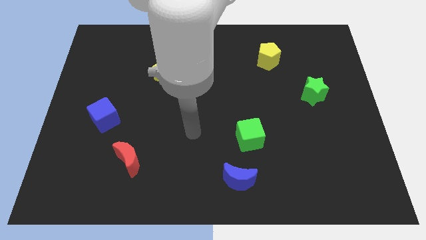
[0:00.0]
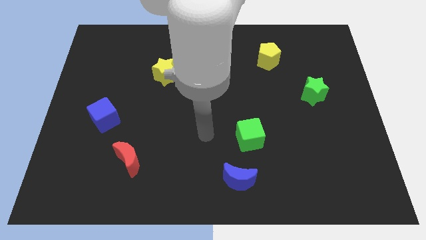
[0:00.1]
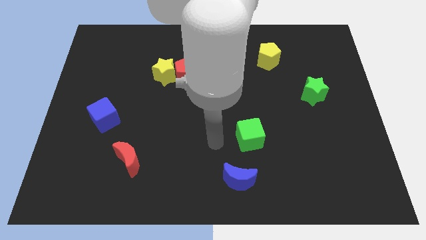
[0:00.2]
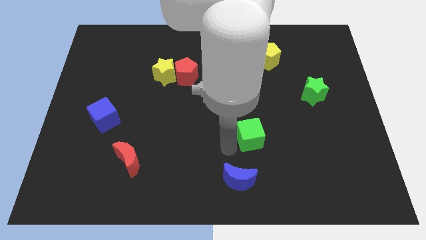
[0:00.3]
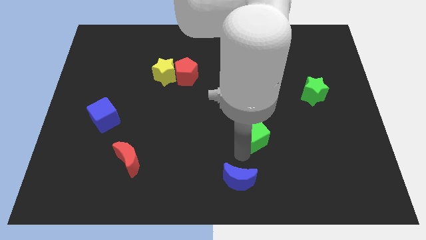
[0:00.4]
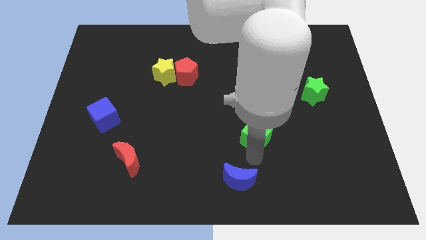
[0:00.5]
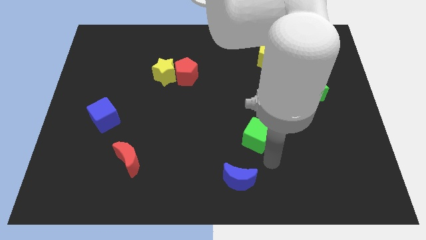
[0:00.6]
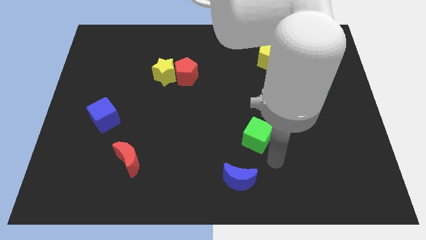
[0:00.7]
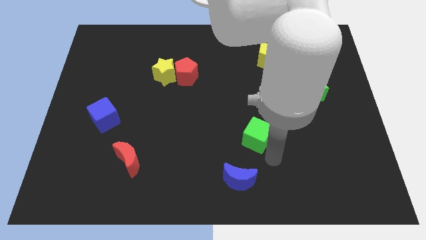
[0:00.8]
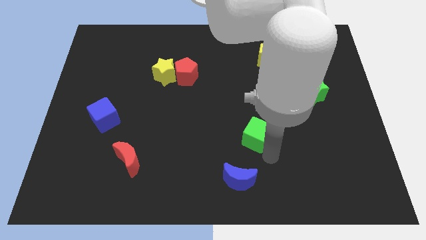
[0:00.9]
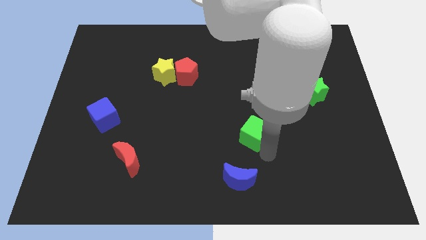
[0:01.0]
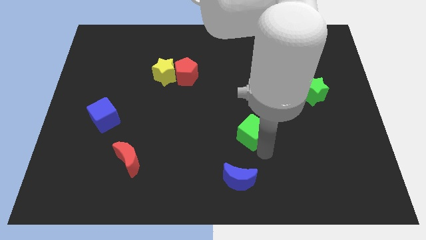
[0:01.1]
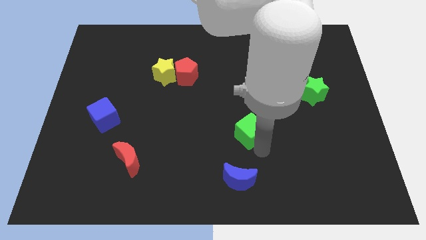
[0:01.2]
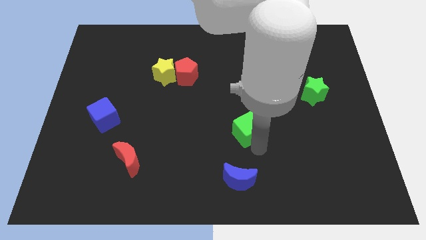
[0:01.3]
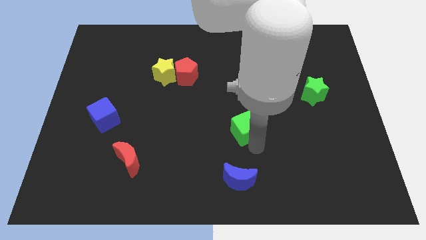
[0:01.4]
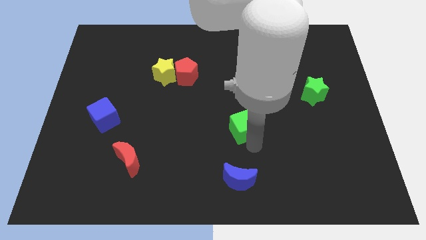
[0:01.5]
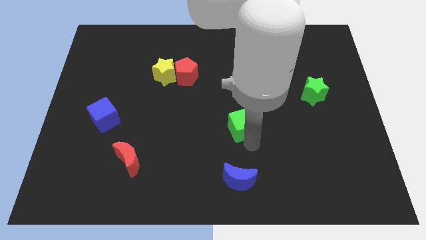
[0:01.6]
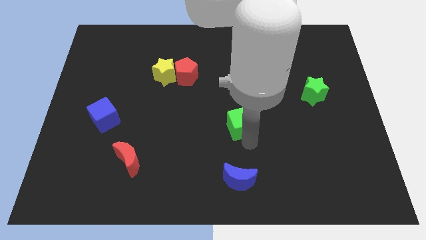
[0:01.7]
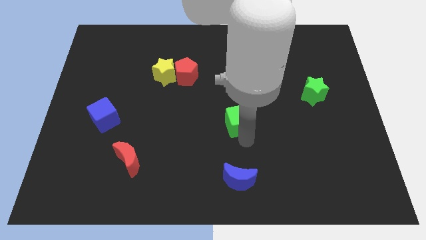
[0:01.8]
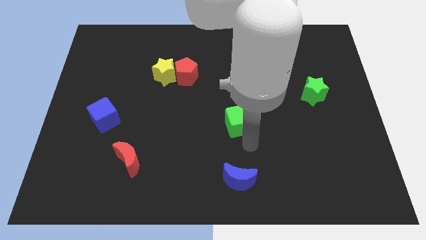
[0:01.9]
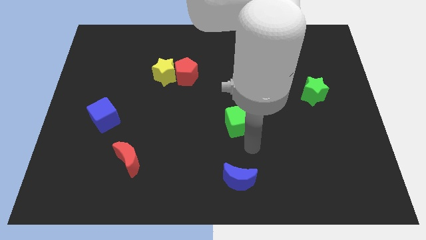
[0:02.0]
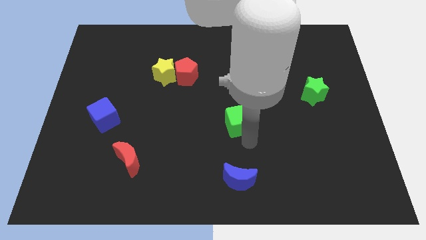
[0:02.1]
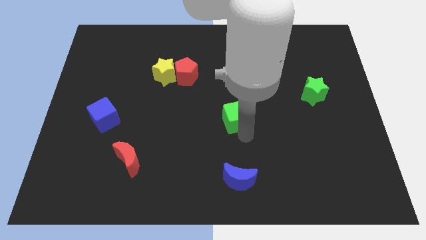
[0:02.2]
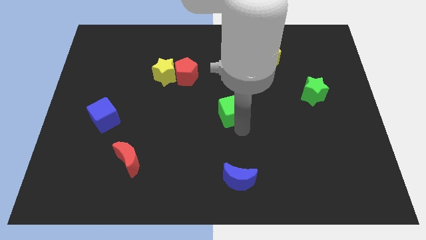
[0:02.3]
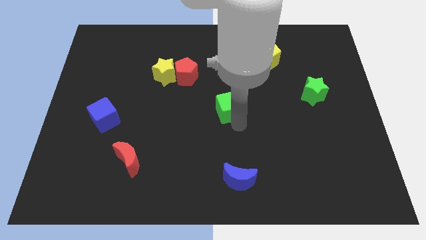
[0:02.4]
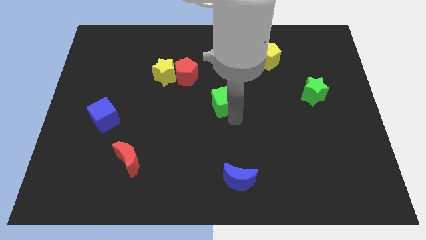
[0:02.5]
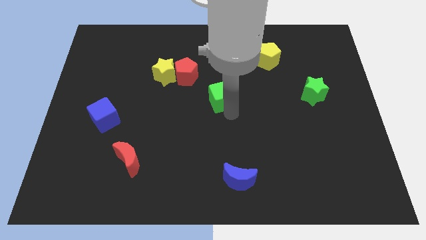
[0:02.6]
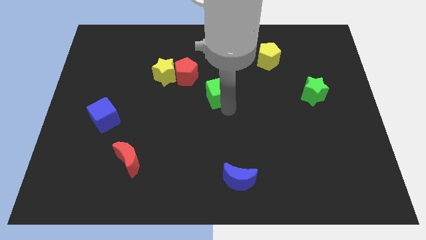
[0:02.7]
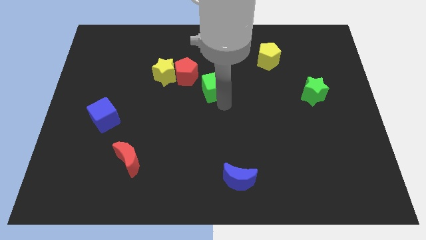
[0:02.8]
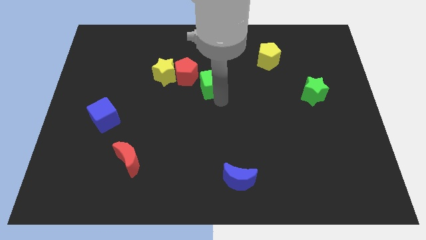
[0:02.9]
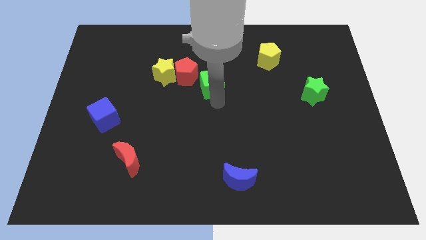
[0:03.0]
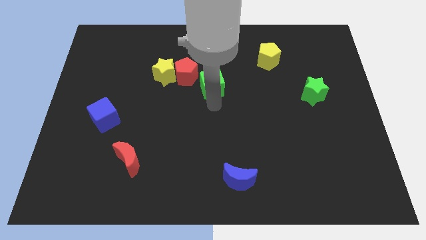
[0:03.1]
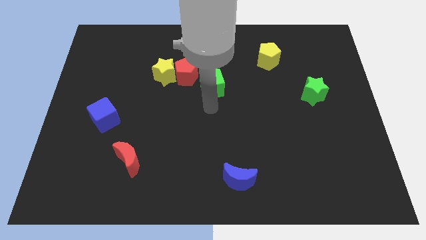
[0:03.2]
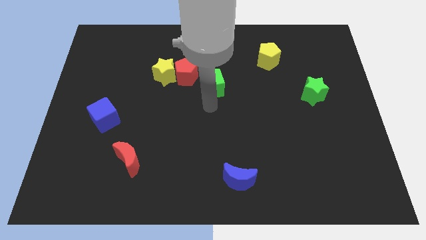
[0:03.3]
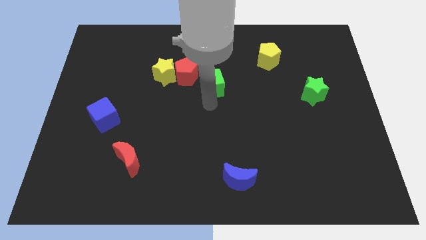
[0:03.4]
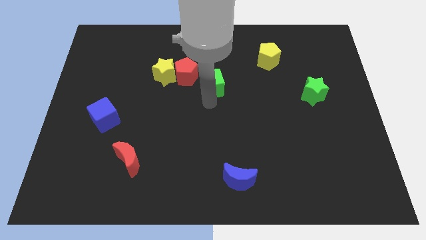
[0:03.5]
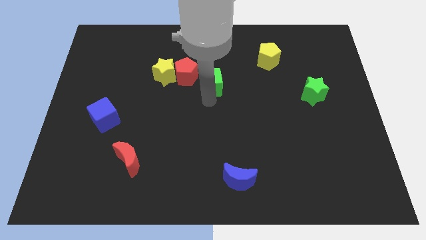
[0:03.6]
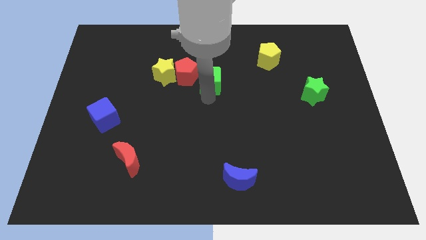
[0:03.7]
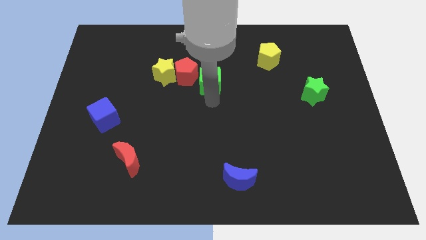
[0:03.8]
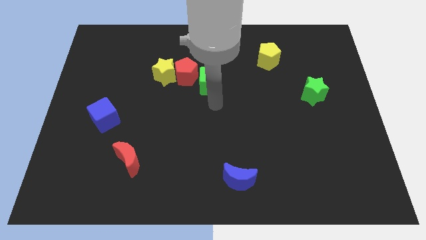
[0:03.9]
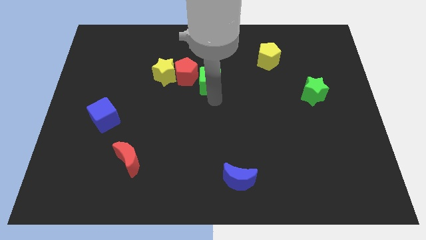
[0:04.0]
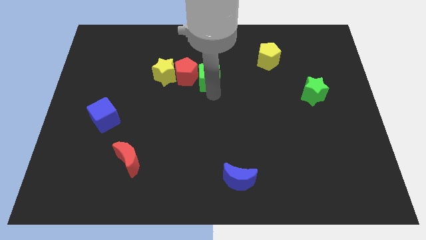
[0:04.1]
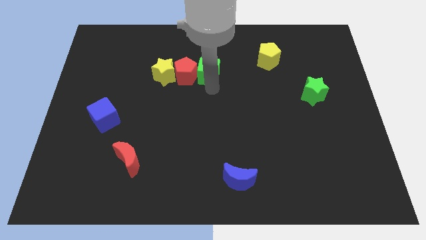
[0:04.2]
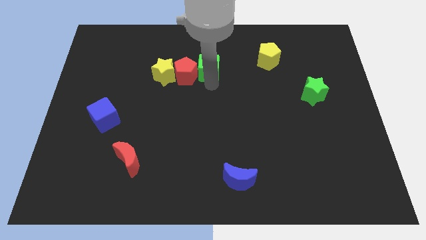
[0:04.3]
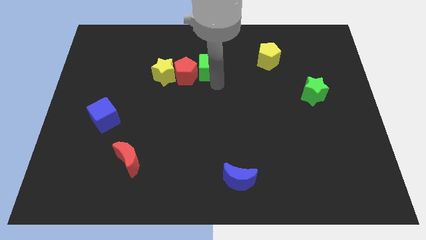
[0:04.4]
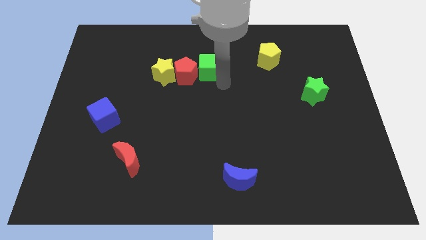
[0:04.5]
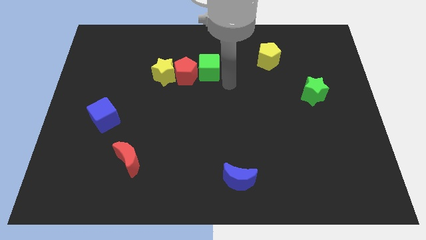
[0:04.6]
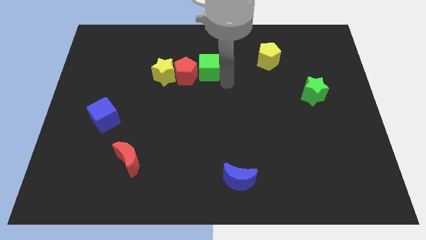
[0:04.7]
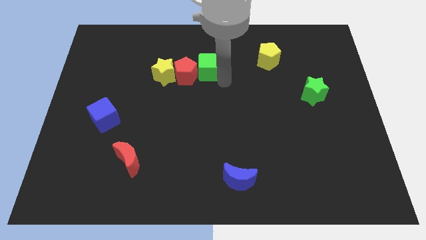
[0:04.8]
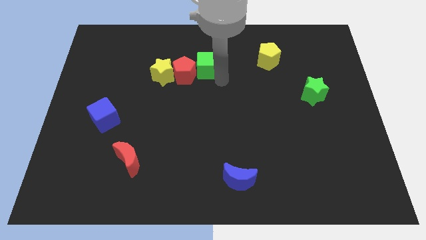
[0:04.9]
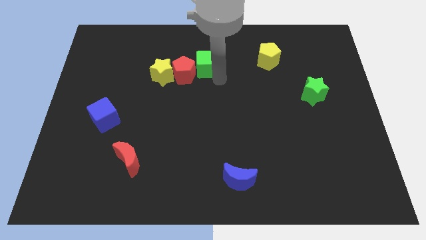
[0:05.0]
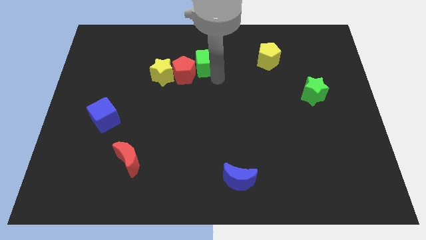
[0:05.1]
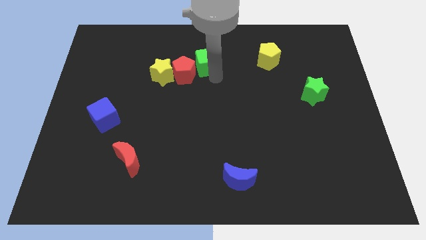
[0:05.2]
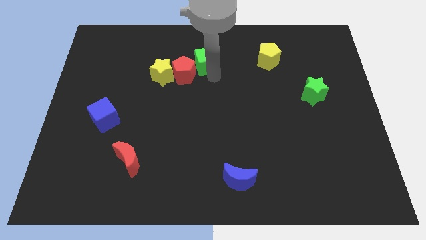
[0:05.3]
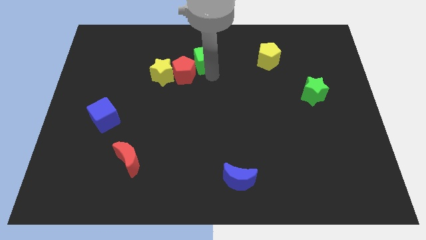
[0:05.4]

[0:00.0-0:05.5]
move the green cube diagonally up and left

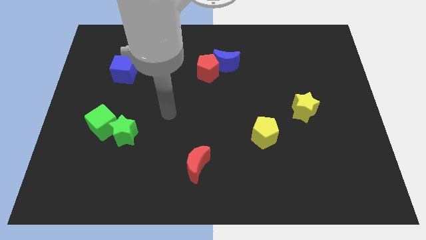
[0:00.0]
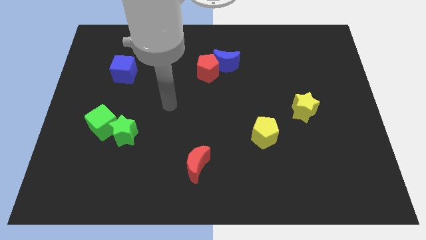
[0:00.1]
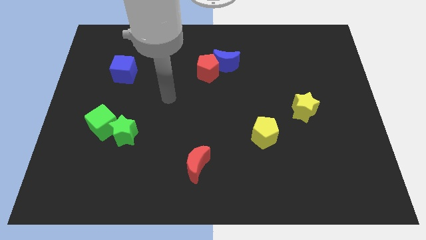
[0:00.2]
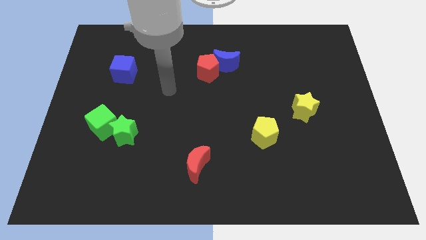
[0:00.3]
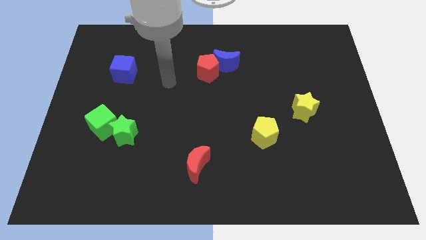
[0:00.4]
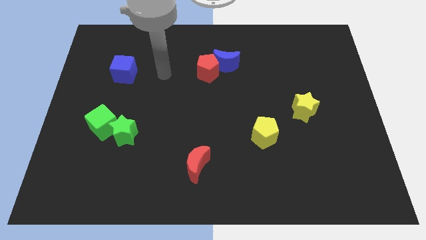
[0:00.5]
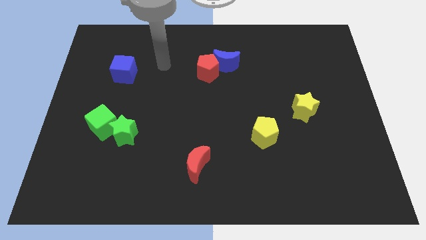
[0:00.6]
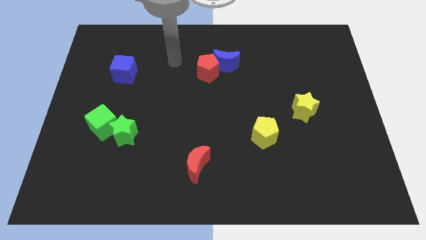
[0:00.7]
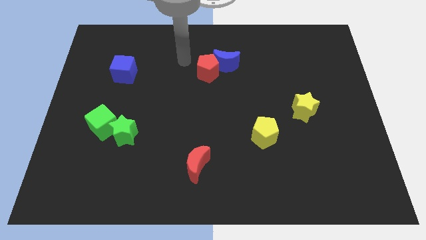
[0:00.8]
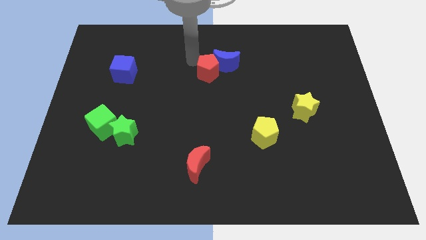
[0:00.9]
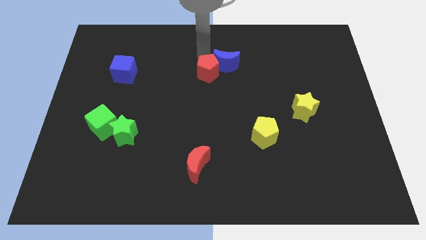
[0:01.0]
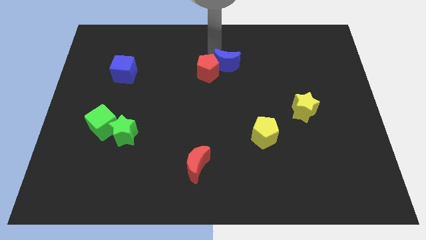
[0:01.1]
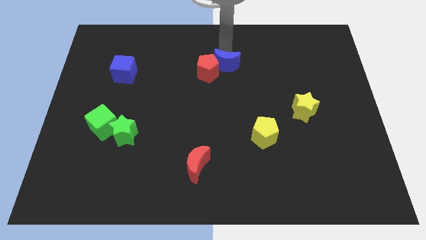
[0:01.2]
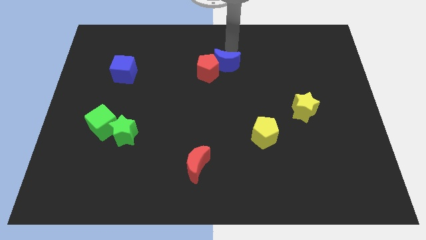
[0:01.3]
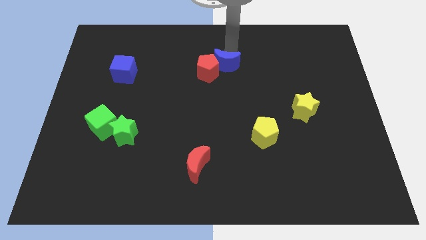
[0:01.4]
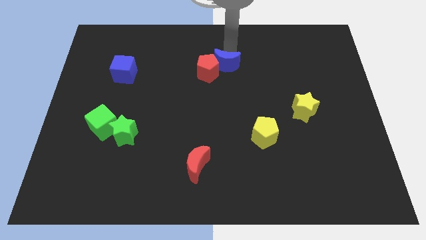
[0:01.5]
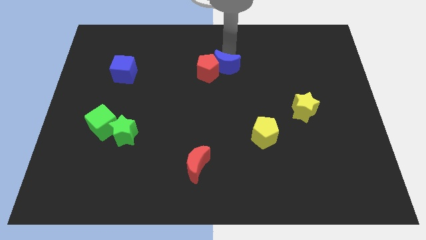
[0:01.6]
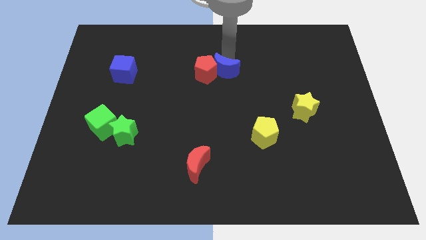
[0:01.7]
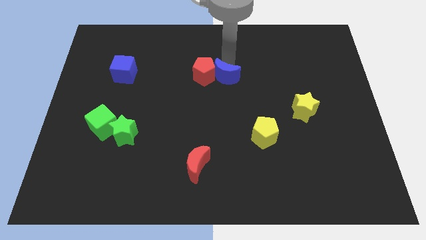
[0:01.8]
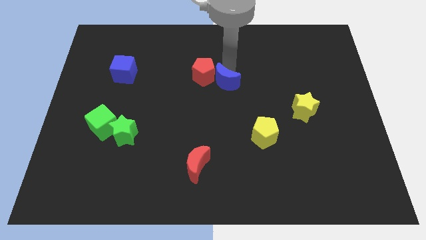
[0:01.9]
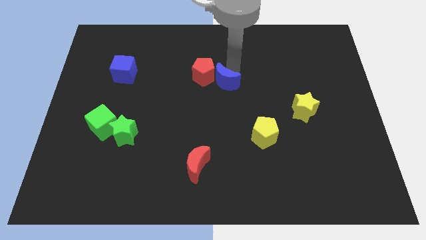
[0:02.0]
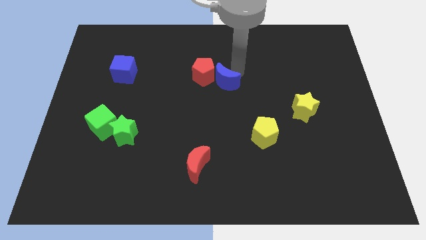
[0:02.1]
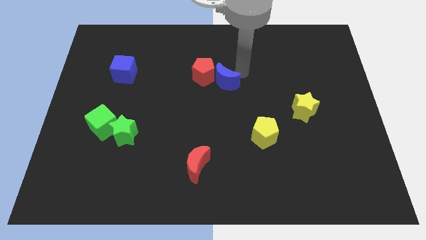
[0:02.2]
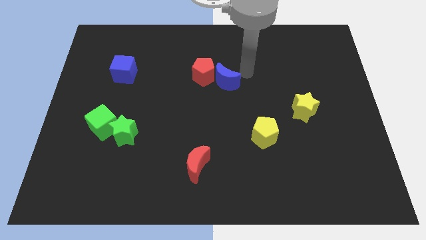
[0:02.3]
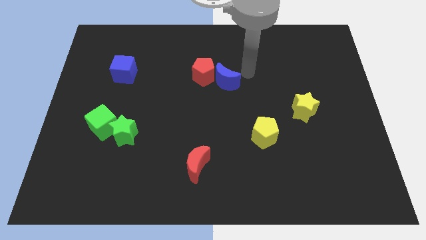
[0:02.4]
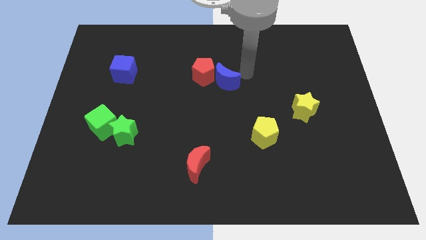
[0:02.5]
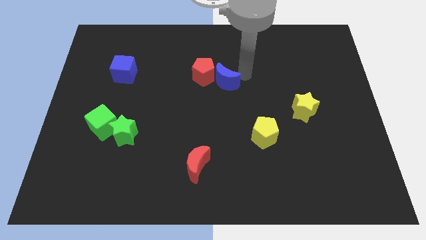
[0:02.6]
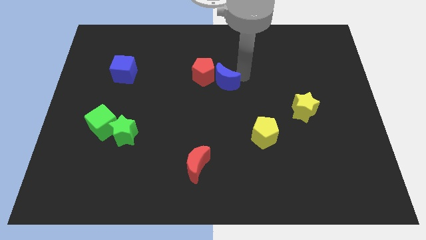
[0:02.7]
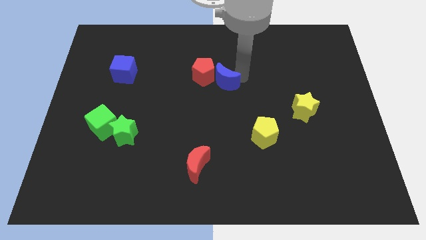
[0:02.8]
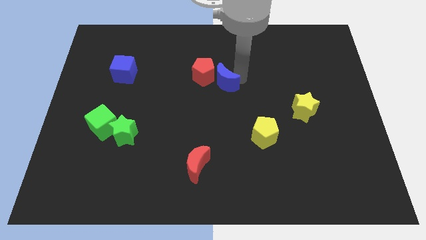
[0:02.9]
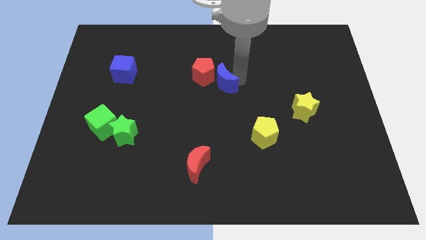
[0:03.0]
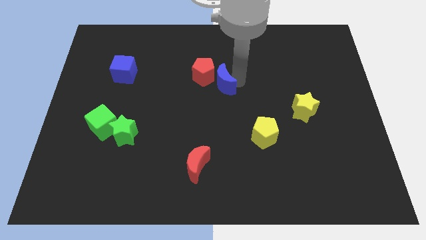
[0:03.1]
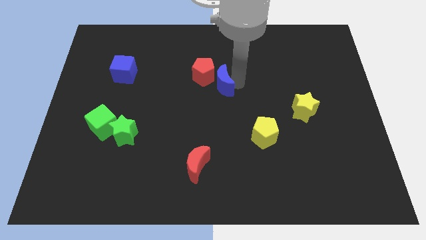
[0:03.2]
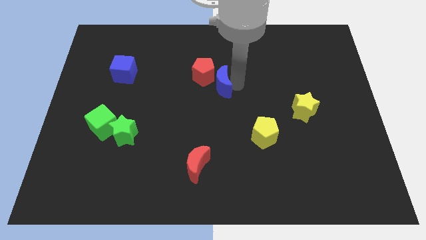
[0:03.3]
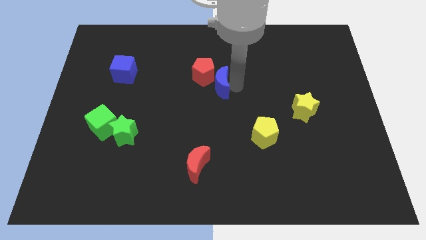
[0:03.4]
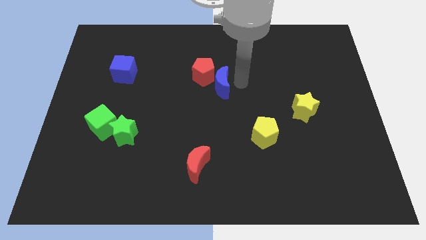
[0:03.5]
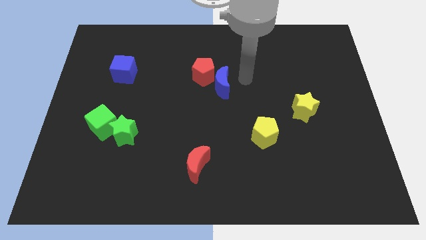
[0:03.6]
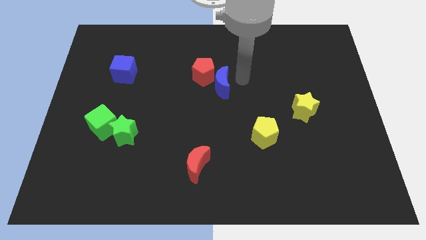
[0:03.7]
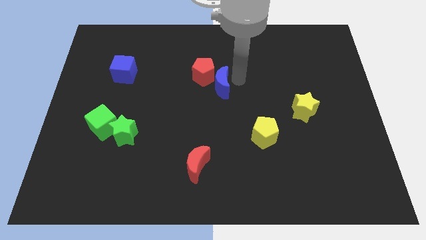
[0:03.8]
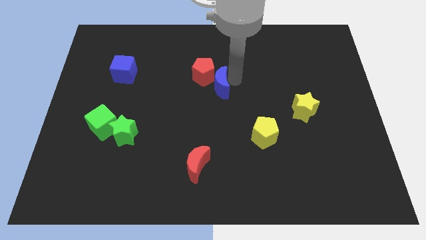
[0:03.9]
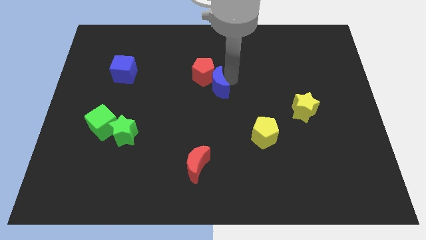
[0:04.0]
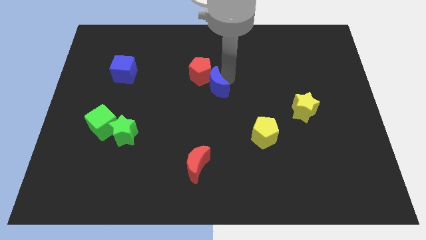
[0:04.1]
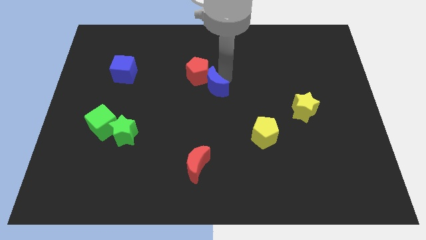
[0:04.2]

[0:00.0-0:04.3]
slightly push the blue moon down and then to the left
